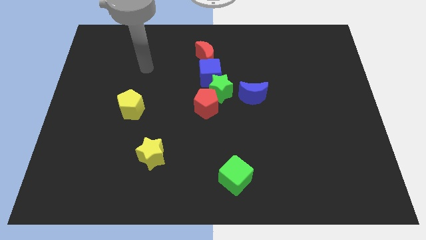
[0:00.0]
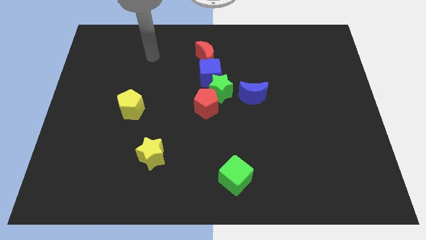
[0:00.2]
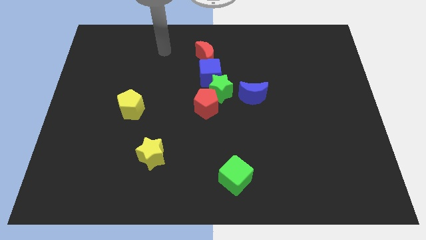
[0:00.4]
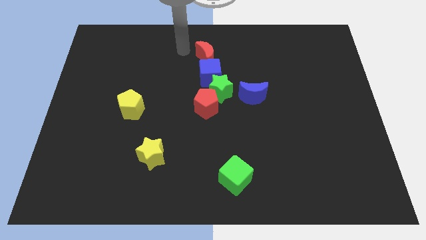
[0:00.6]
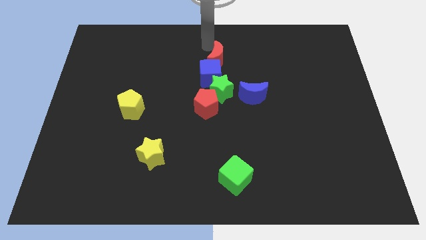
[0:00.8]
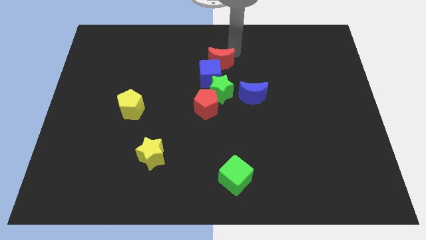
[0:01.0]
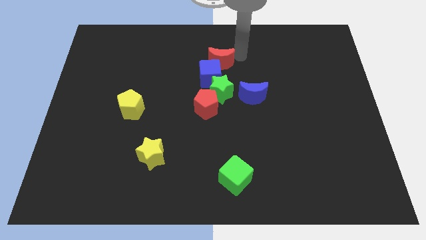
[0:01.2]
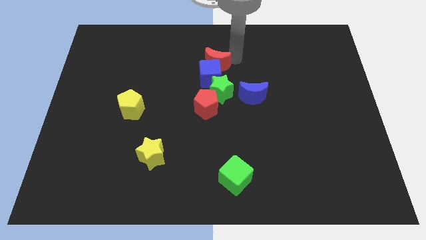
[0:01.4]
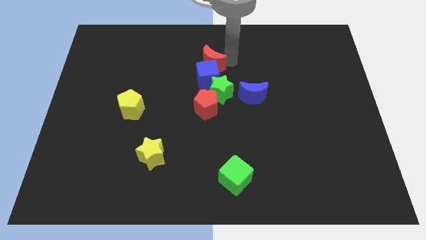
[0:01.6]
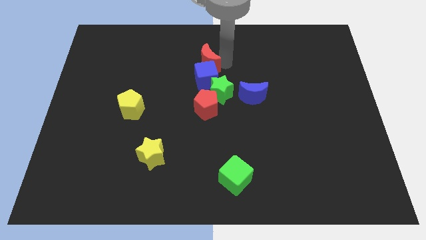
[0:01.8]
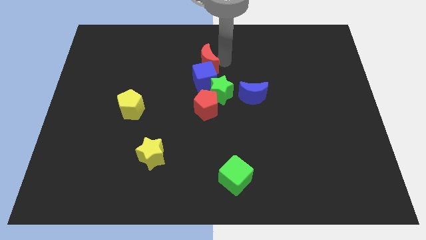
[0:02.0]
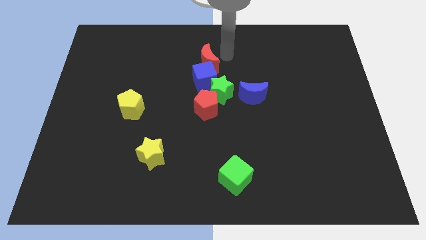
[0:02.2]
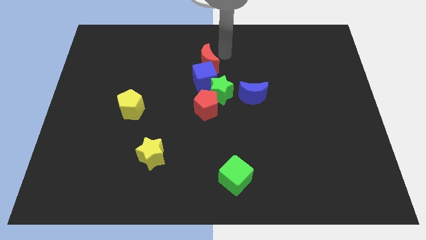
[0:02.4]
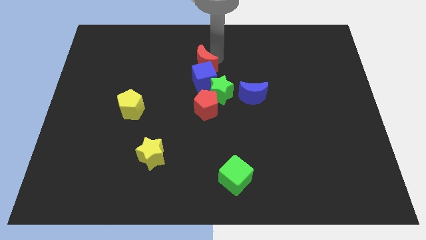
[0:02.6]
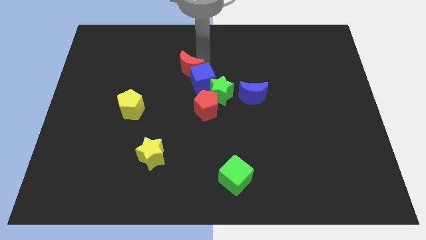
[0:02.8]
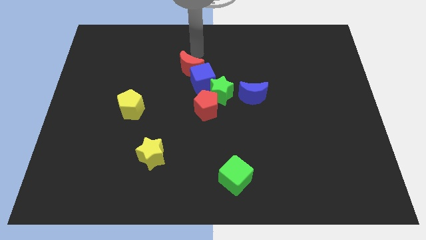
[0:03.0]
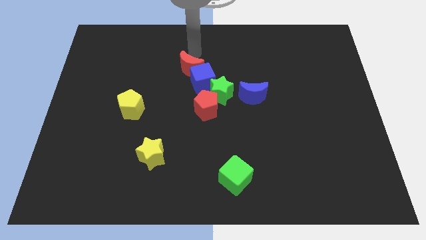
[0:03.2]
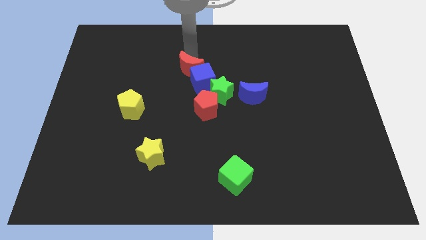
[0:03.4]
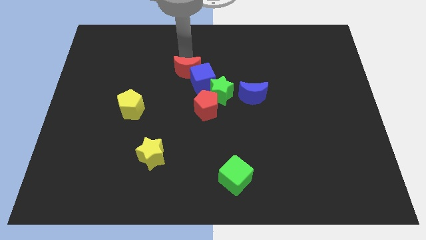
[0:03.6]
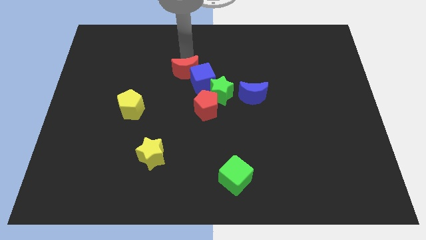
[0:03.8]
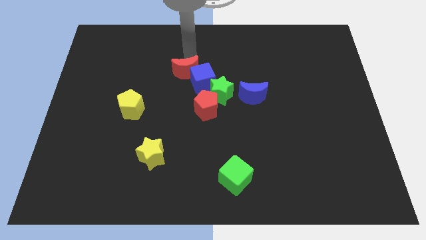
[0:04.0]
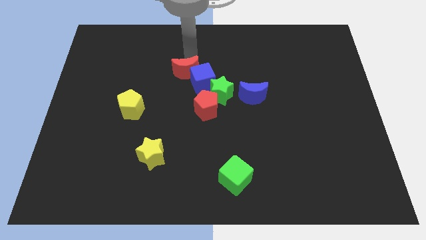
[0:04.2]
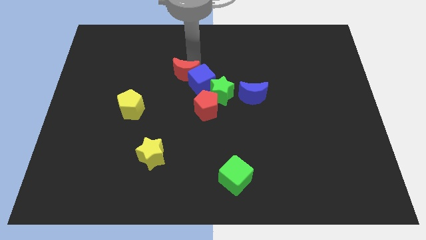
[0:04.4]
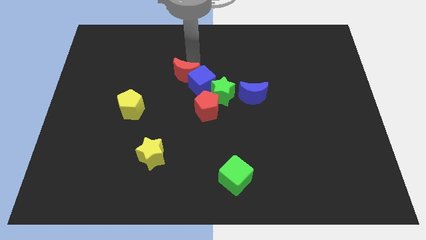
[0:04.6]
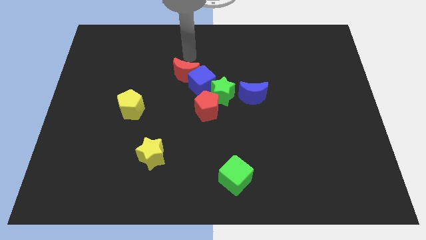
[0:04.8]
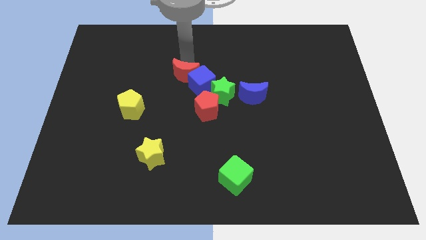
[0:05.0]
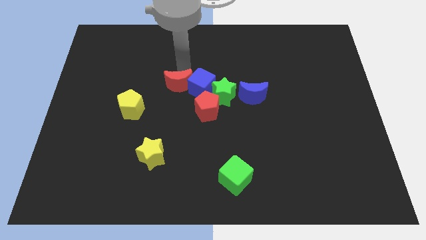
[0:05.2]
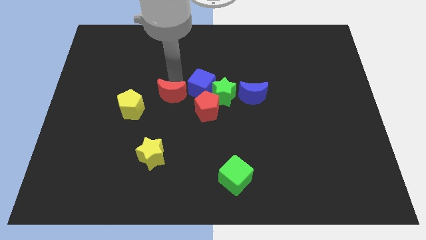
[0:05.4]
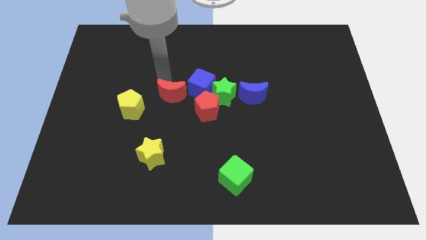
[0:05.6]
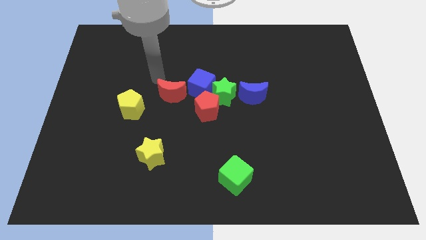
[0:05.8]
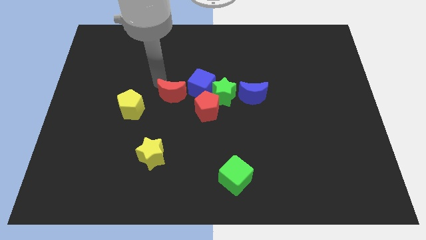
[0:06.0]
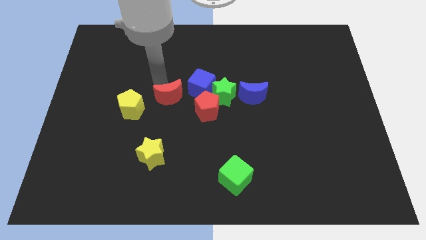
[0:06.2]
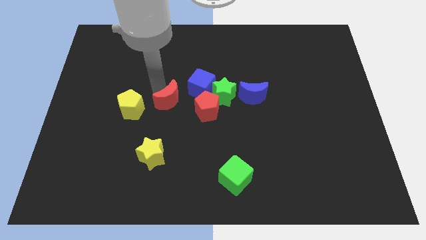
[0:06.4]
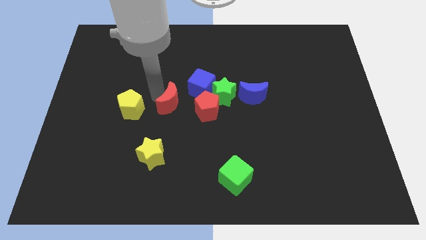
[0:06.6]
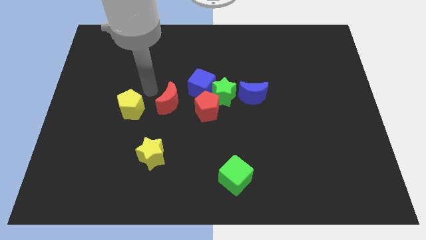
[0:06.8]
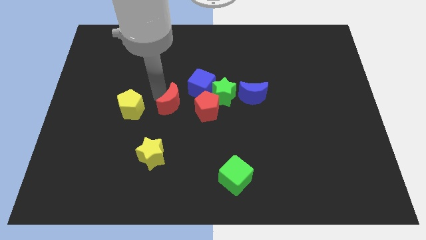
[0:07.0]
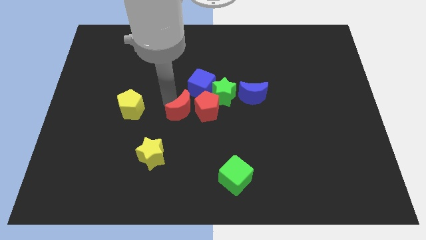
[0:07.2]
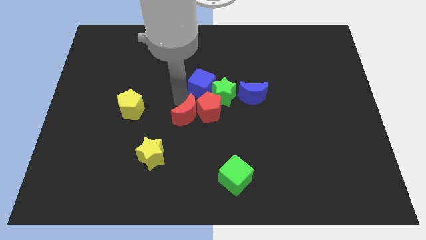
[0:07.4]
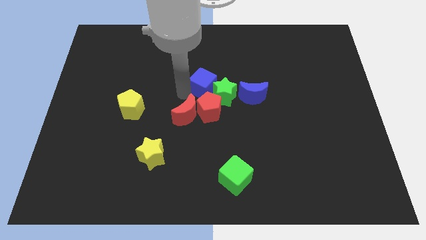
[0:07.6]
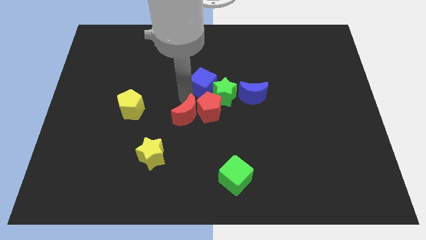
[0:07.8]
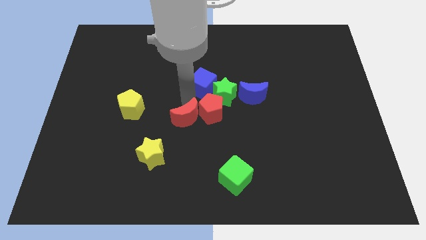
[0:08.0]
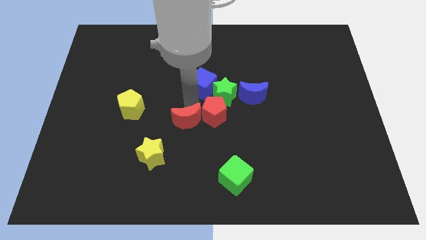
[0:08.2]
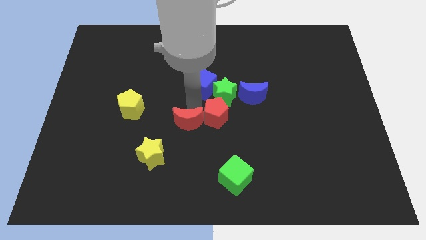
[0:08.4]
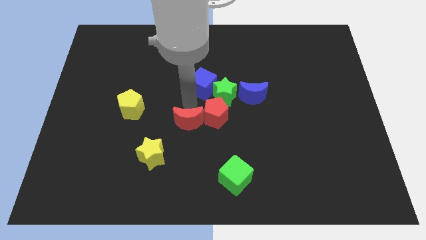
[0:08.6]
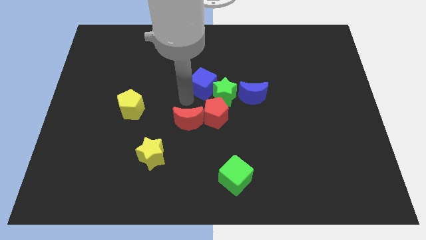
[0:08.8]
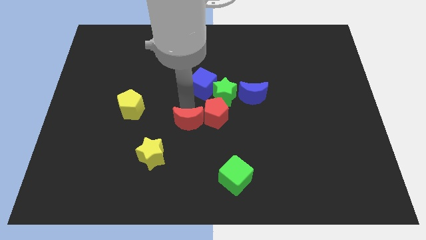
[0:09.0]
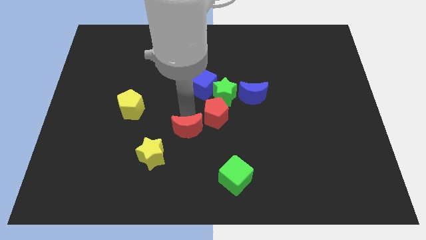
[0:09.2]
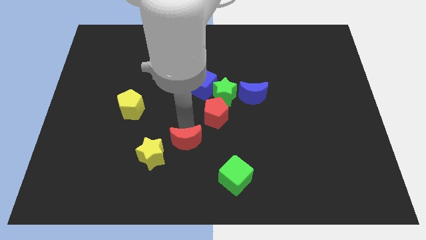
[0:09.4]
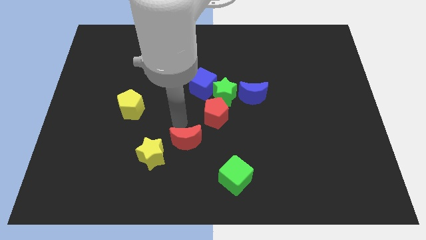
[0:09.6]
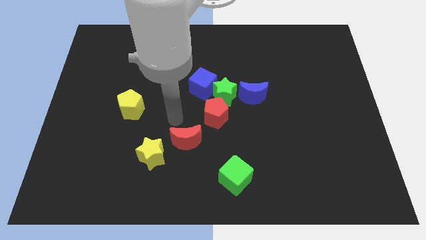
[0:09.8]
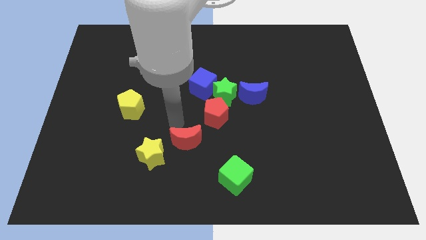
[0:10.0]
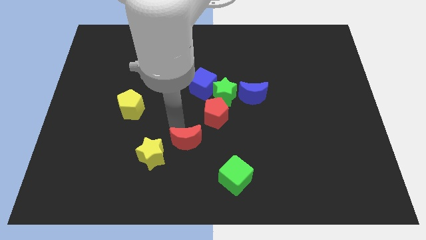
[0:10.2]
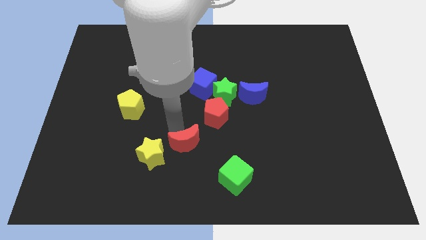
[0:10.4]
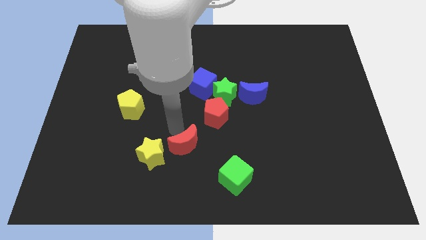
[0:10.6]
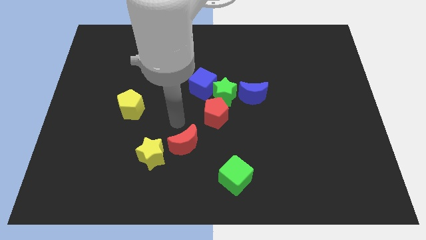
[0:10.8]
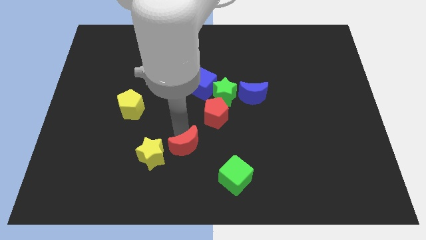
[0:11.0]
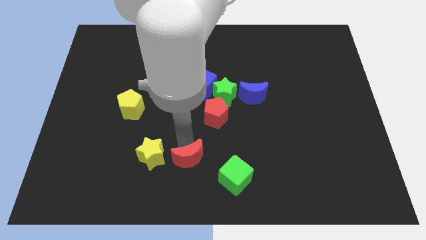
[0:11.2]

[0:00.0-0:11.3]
put the red moon to the bottom
